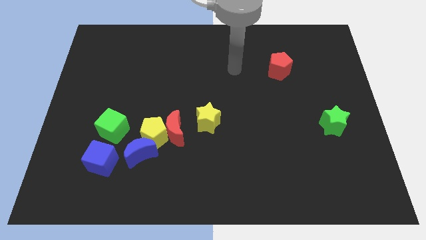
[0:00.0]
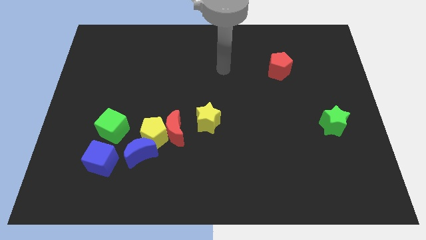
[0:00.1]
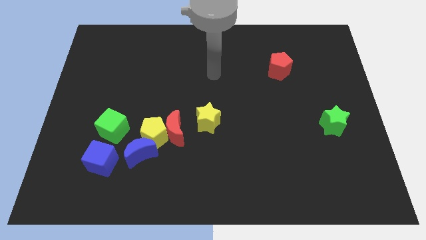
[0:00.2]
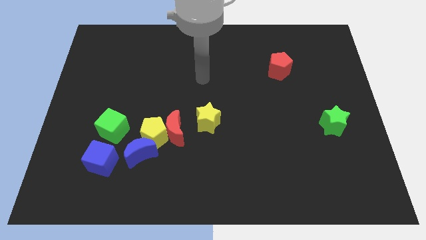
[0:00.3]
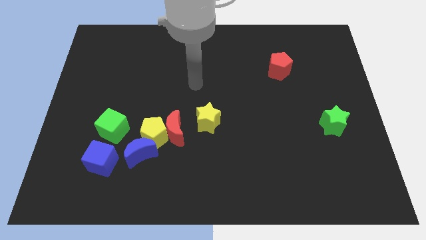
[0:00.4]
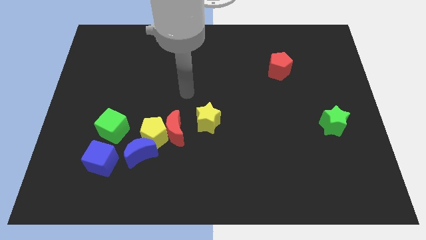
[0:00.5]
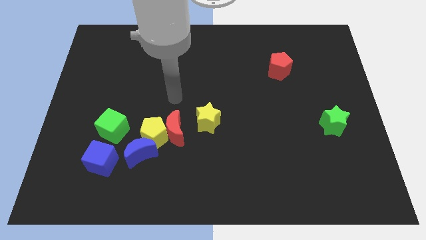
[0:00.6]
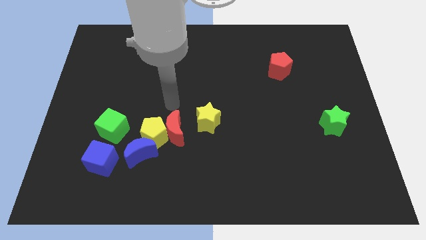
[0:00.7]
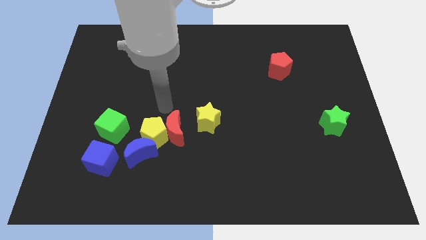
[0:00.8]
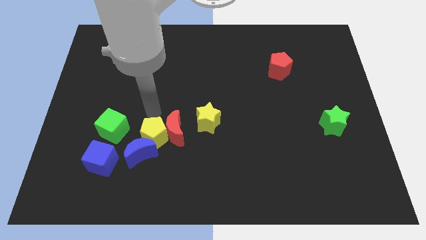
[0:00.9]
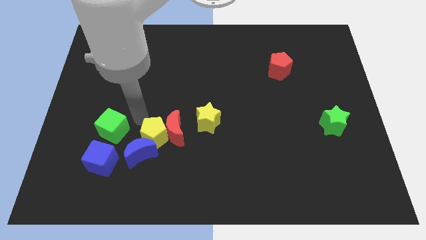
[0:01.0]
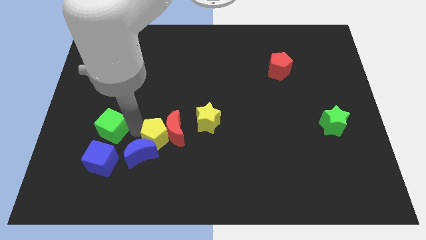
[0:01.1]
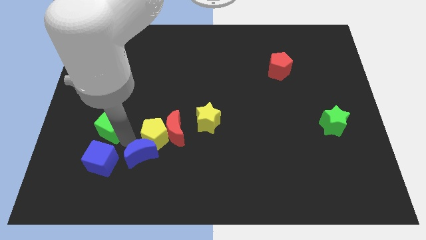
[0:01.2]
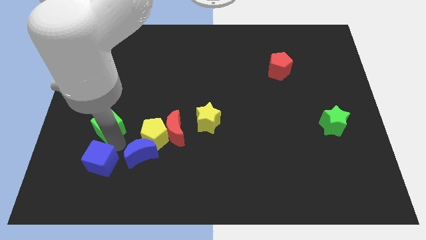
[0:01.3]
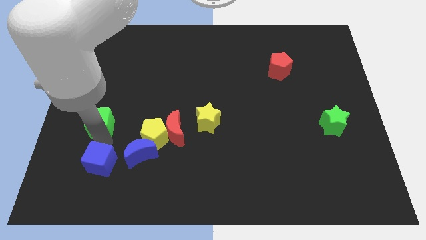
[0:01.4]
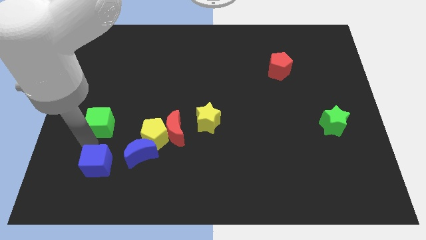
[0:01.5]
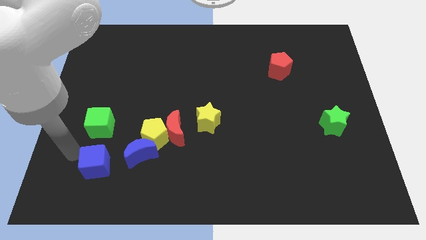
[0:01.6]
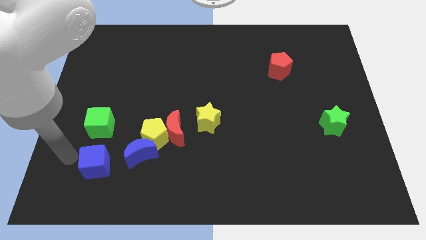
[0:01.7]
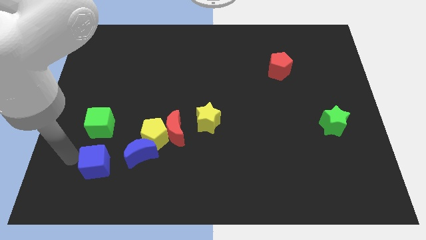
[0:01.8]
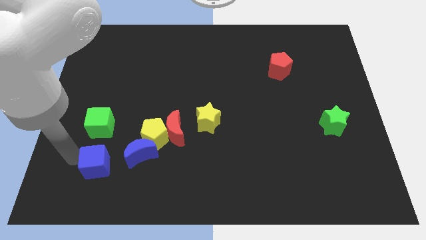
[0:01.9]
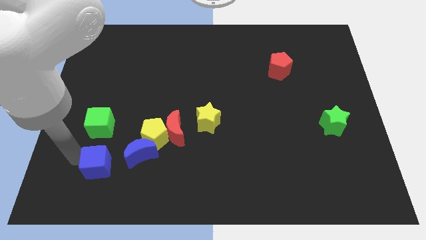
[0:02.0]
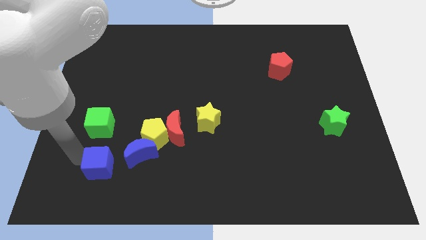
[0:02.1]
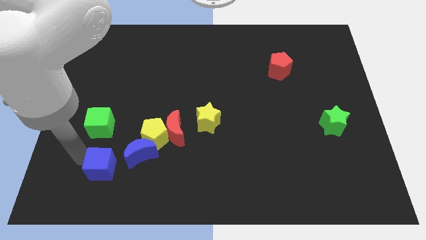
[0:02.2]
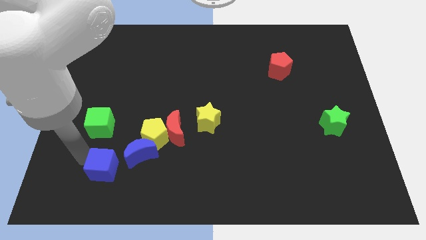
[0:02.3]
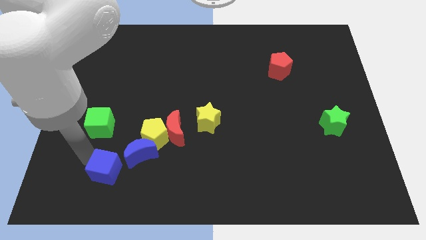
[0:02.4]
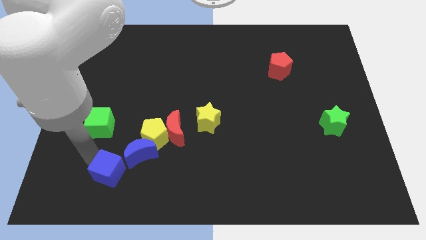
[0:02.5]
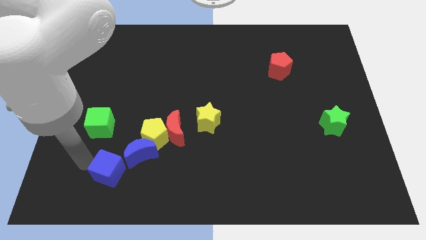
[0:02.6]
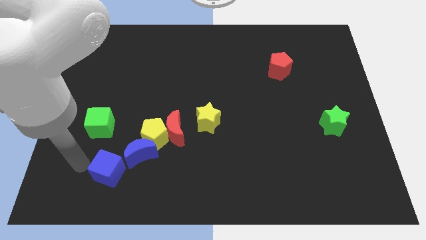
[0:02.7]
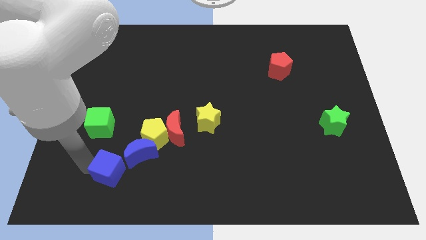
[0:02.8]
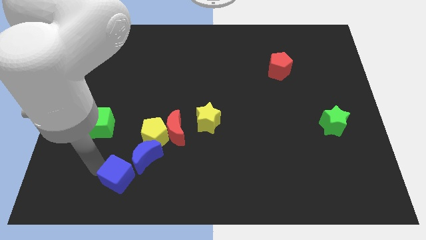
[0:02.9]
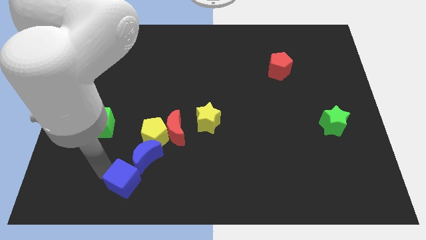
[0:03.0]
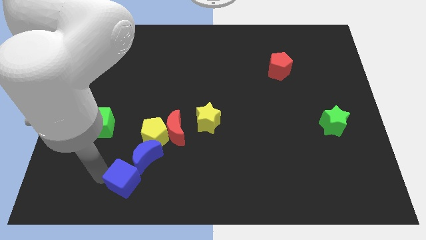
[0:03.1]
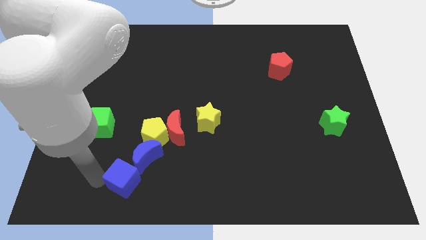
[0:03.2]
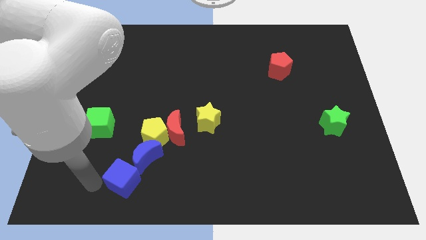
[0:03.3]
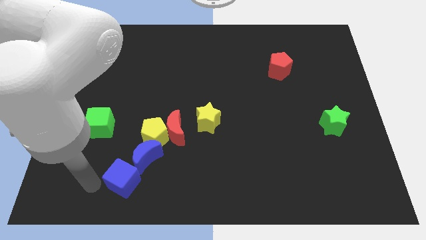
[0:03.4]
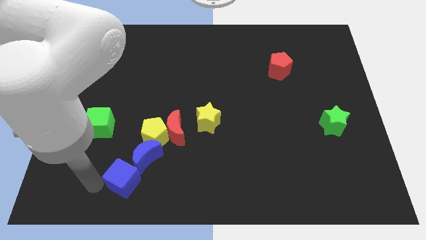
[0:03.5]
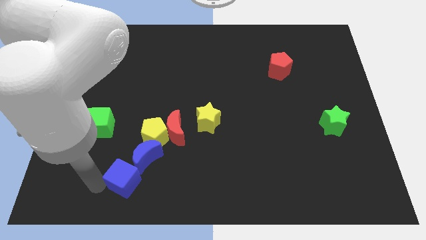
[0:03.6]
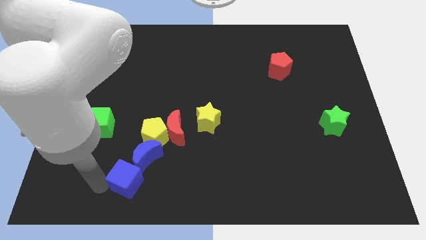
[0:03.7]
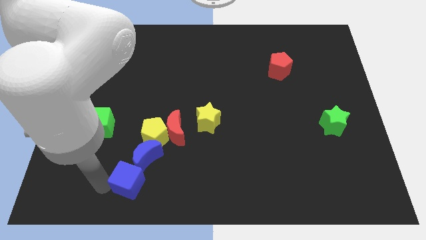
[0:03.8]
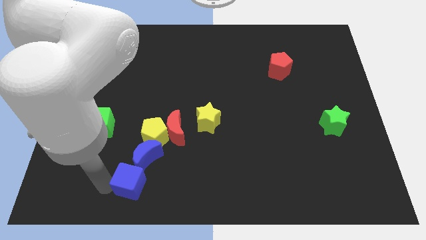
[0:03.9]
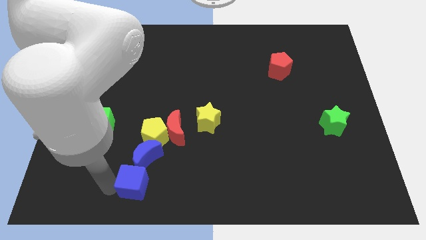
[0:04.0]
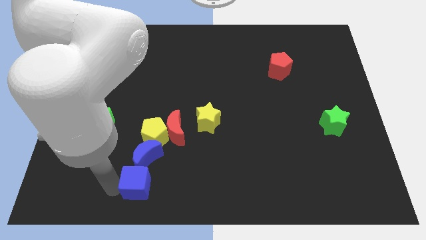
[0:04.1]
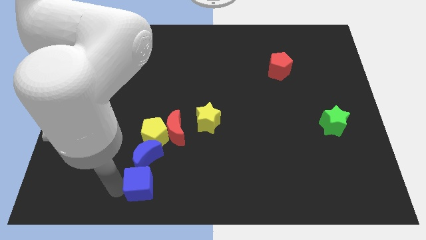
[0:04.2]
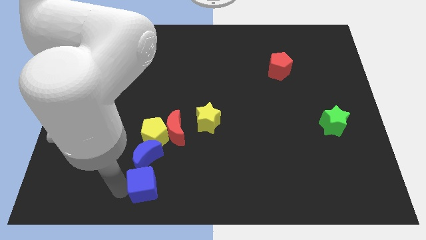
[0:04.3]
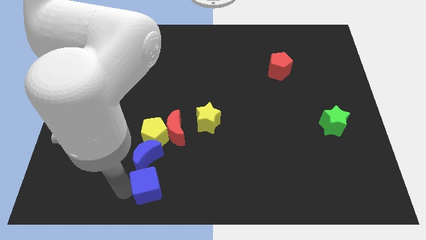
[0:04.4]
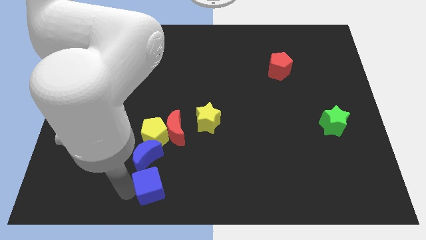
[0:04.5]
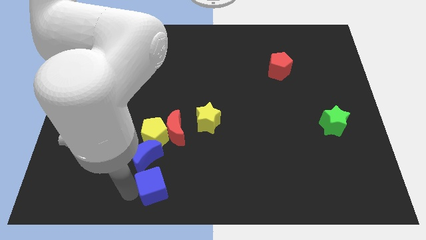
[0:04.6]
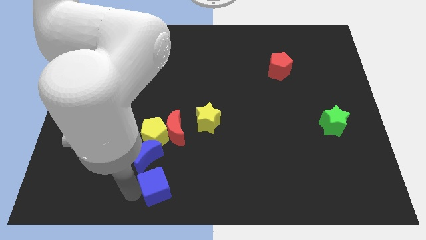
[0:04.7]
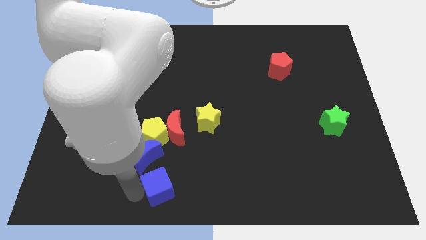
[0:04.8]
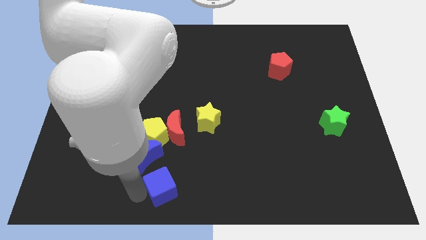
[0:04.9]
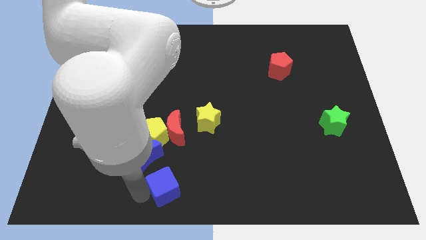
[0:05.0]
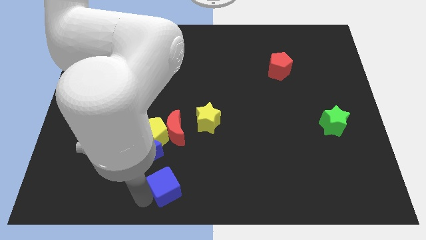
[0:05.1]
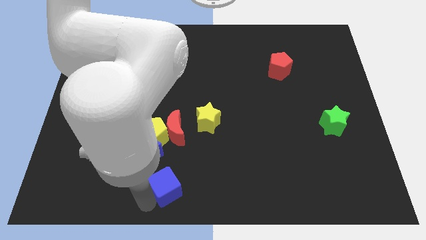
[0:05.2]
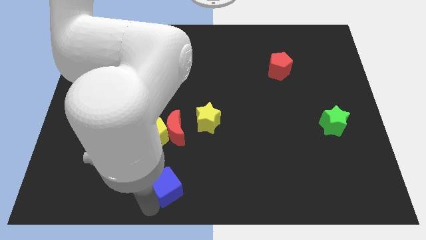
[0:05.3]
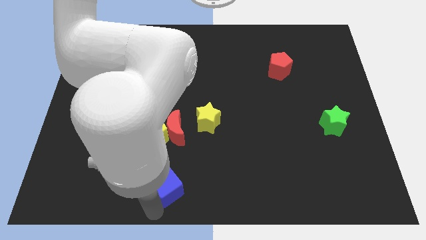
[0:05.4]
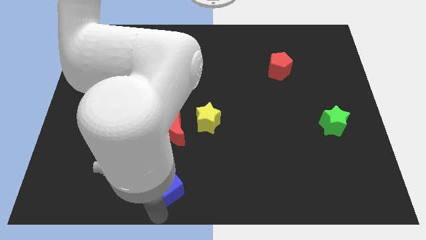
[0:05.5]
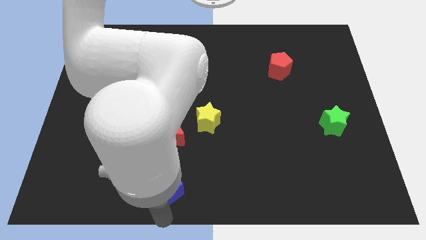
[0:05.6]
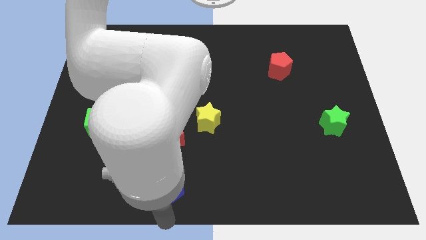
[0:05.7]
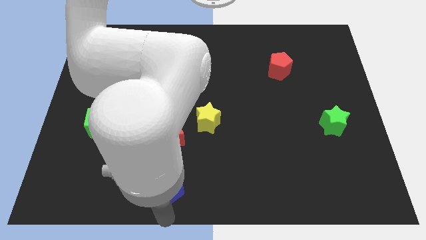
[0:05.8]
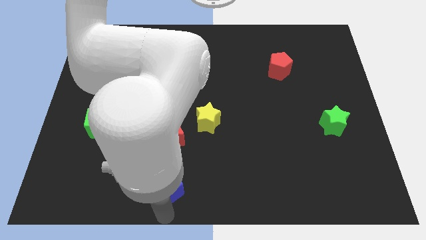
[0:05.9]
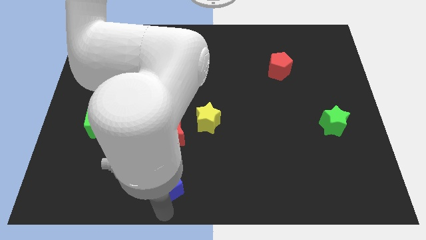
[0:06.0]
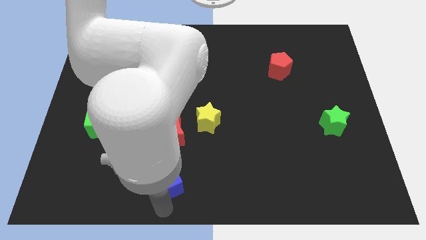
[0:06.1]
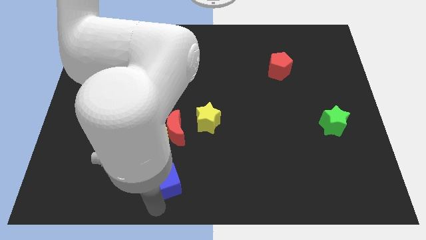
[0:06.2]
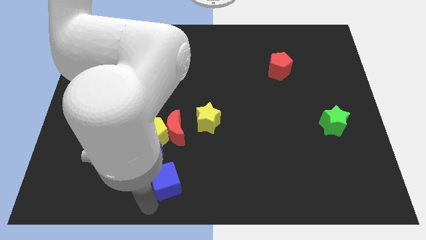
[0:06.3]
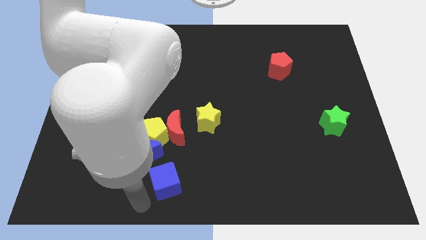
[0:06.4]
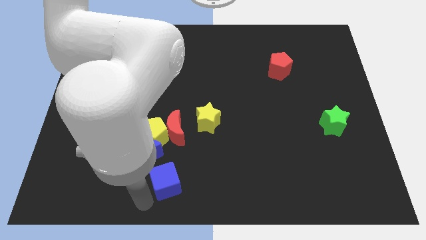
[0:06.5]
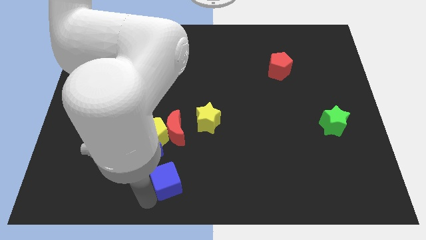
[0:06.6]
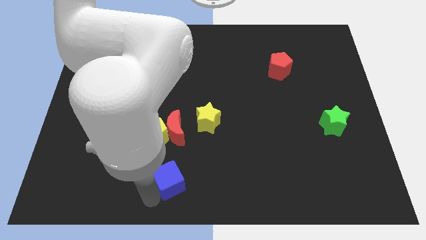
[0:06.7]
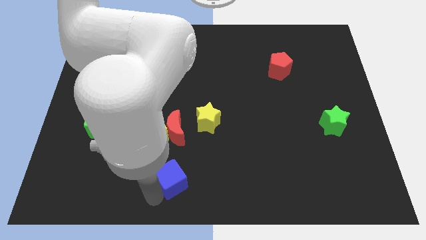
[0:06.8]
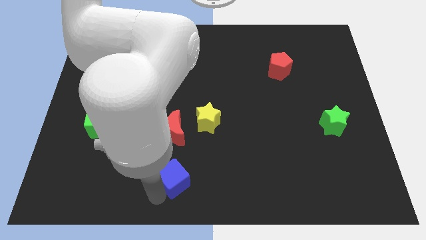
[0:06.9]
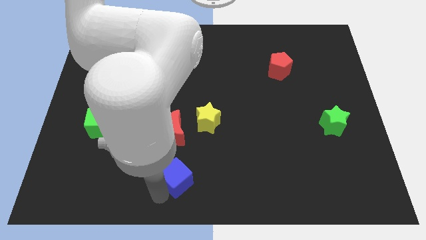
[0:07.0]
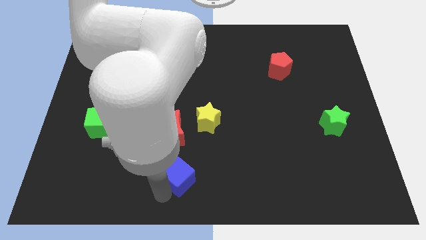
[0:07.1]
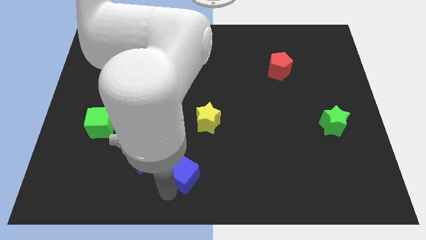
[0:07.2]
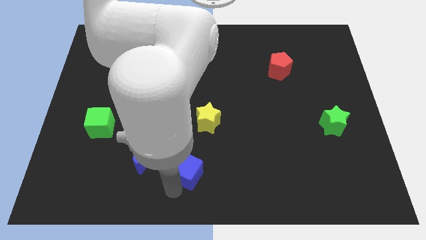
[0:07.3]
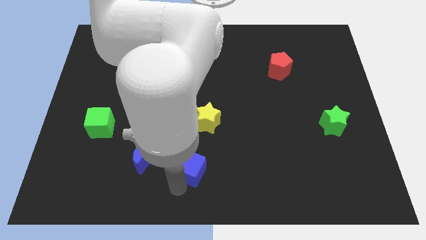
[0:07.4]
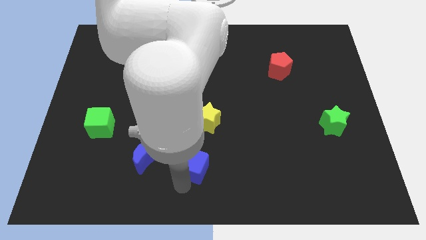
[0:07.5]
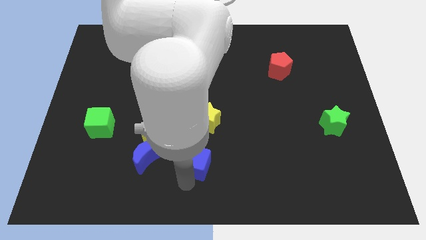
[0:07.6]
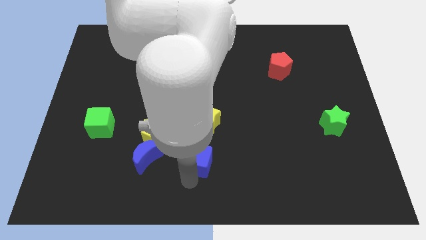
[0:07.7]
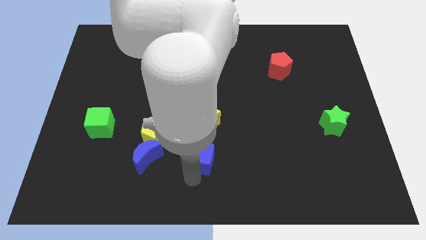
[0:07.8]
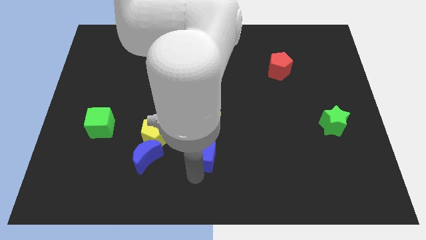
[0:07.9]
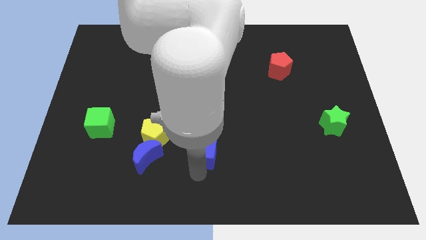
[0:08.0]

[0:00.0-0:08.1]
move the blue cube to the right of the yellow pentagon
